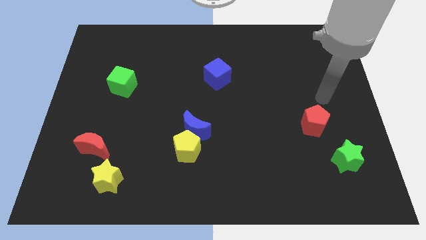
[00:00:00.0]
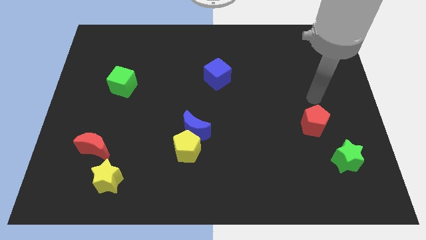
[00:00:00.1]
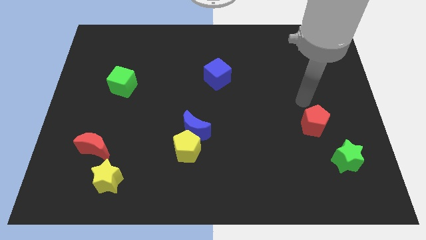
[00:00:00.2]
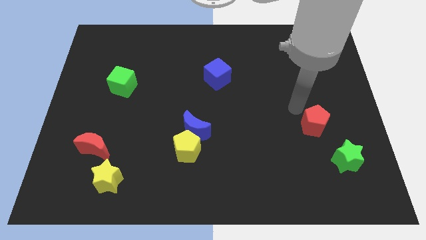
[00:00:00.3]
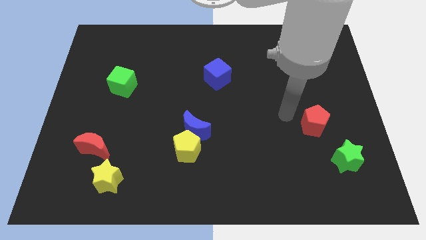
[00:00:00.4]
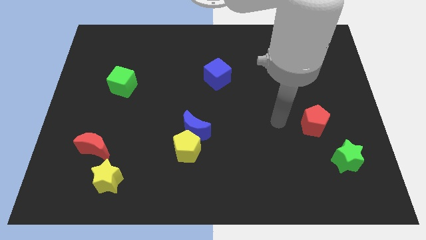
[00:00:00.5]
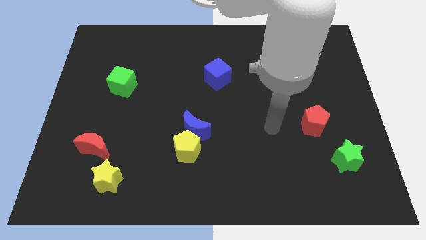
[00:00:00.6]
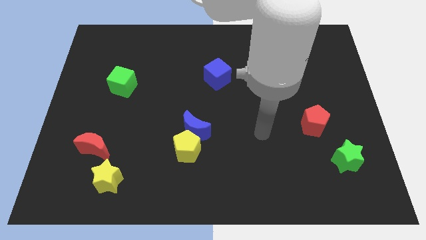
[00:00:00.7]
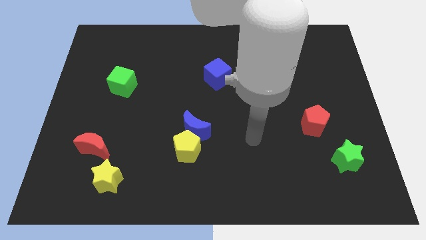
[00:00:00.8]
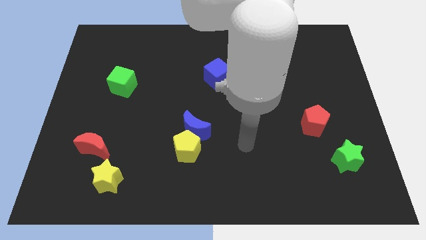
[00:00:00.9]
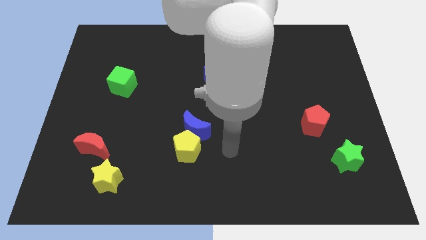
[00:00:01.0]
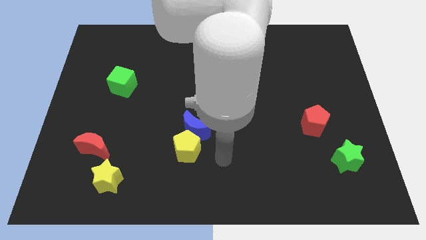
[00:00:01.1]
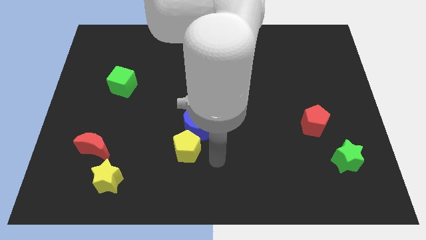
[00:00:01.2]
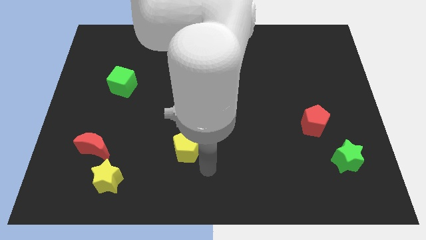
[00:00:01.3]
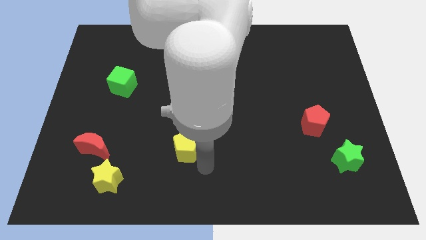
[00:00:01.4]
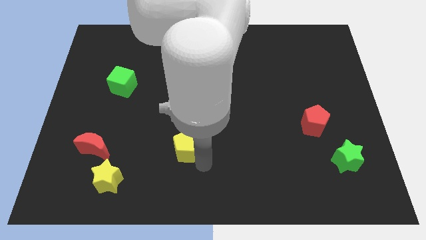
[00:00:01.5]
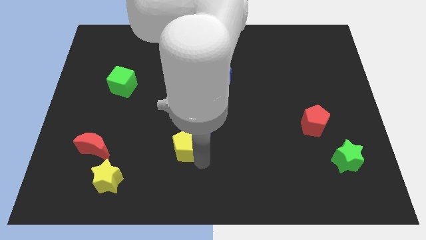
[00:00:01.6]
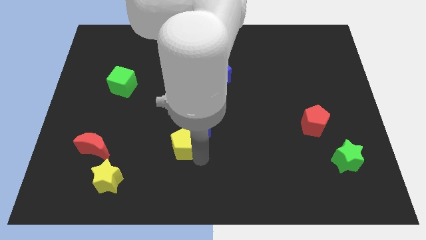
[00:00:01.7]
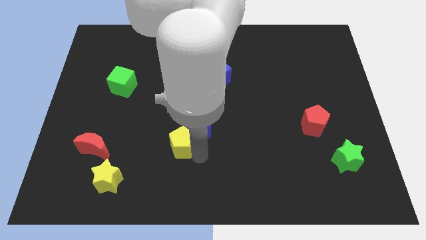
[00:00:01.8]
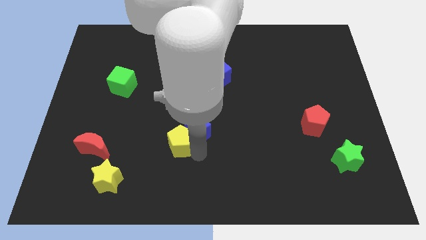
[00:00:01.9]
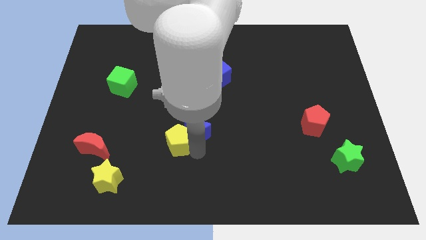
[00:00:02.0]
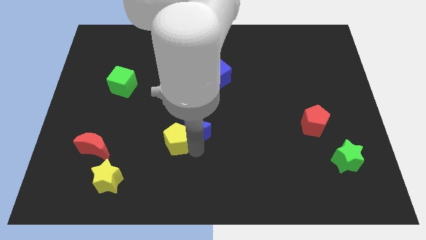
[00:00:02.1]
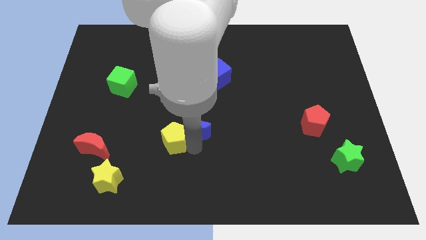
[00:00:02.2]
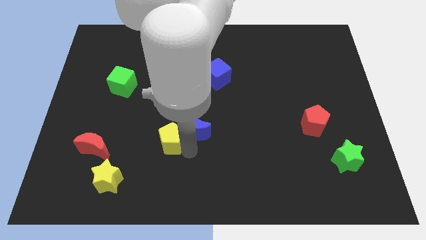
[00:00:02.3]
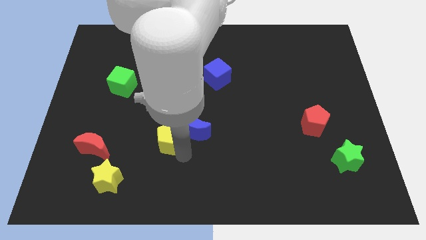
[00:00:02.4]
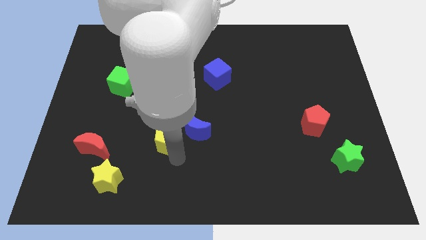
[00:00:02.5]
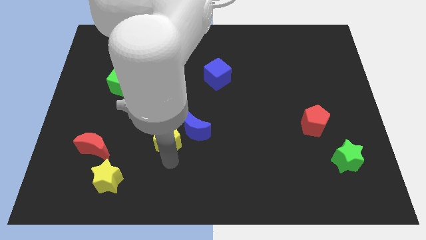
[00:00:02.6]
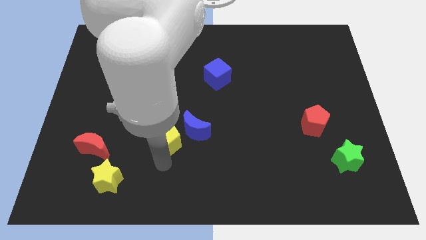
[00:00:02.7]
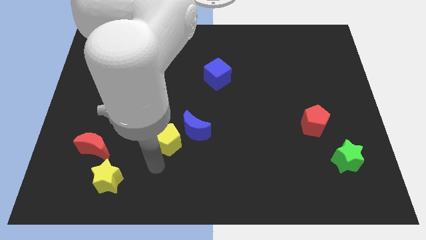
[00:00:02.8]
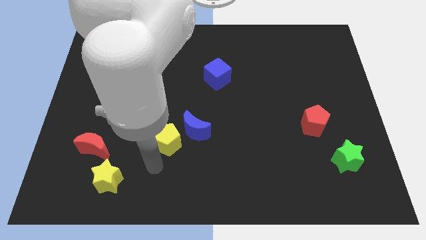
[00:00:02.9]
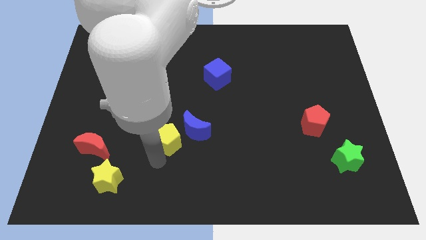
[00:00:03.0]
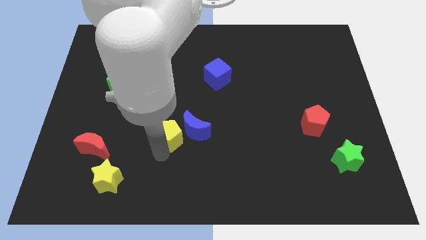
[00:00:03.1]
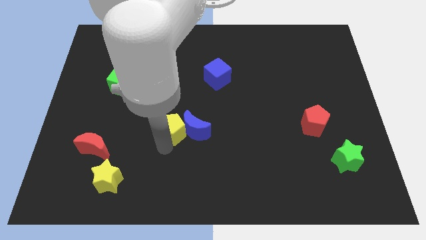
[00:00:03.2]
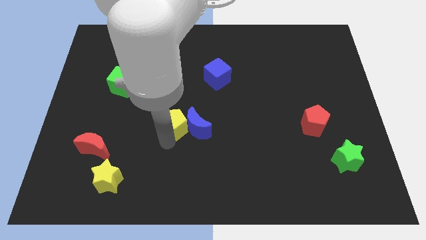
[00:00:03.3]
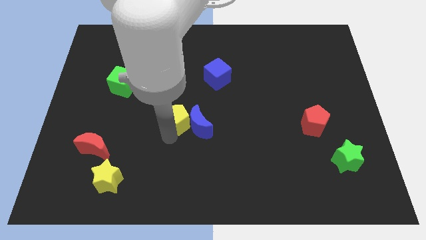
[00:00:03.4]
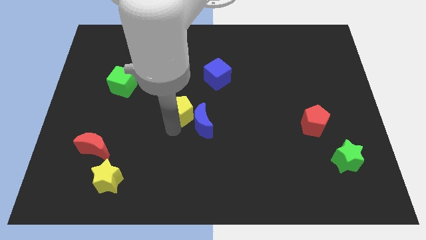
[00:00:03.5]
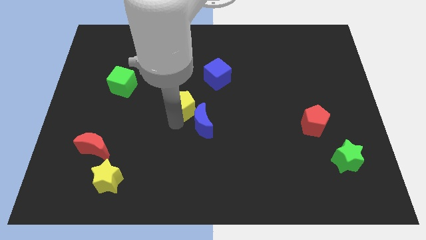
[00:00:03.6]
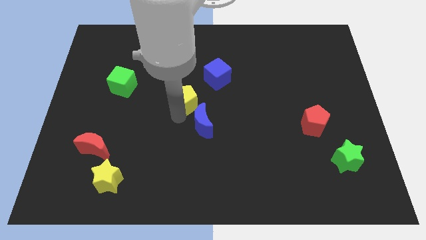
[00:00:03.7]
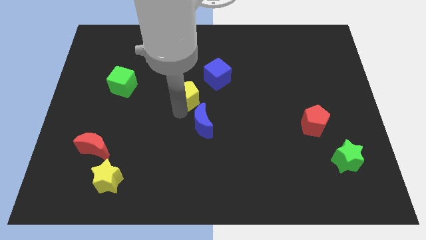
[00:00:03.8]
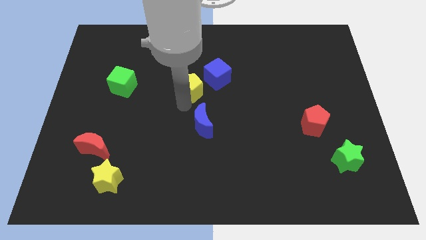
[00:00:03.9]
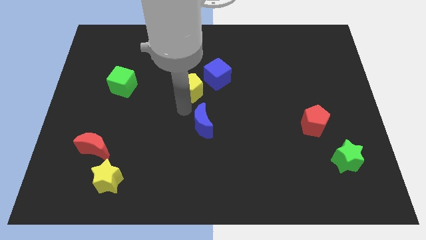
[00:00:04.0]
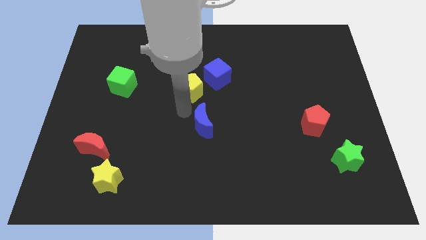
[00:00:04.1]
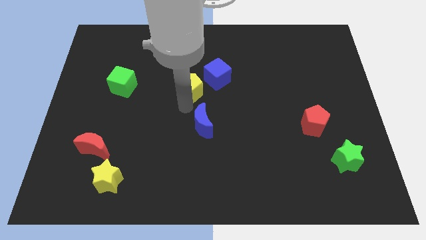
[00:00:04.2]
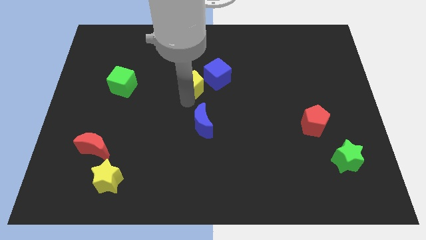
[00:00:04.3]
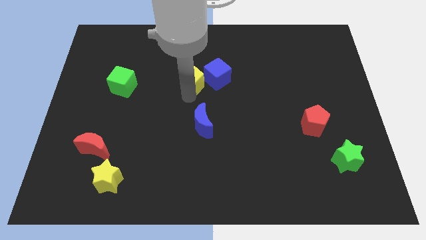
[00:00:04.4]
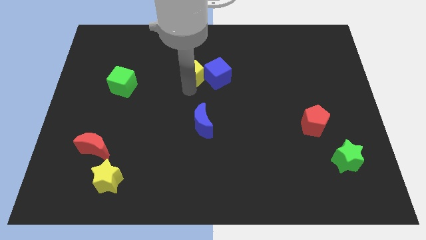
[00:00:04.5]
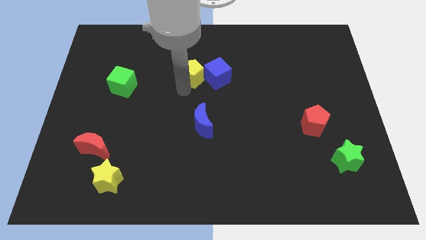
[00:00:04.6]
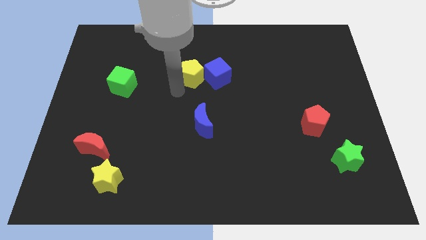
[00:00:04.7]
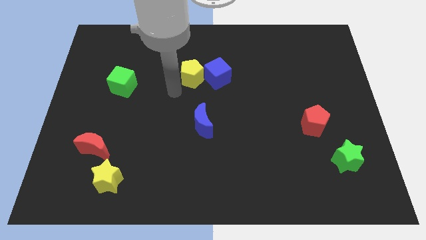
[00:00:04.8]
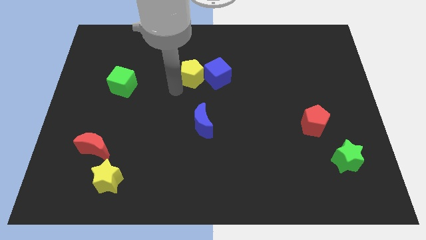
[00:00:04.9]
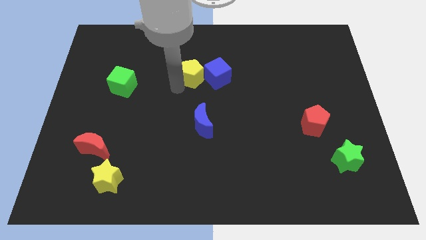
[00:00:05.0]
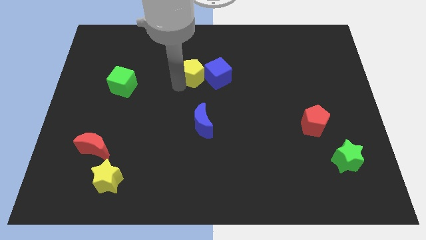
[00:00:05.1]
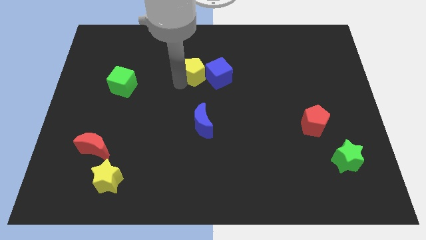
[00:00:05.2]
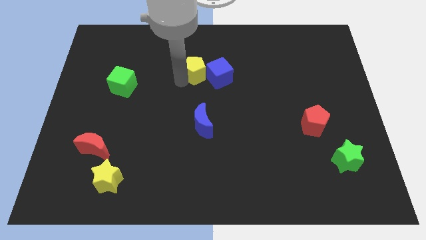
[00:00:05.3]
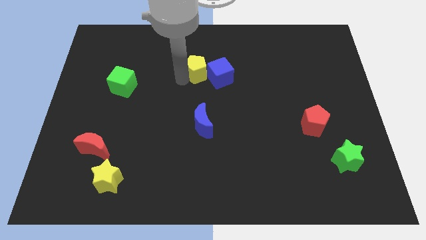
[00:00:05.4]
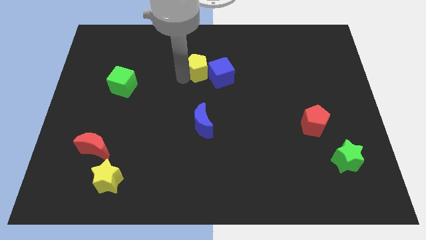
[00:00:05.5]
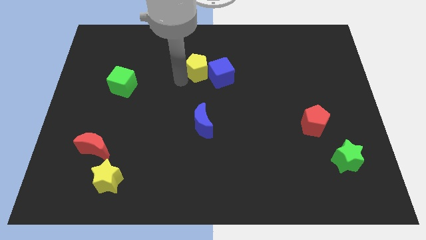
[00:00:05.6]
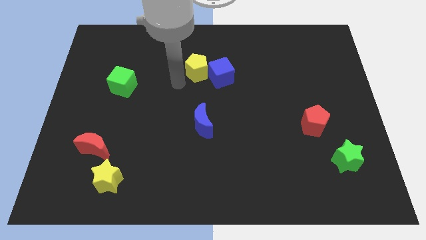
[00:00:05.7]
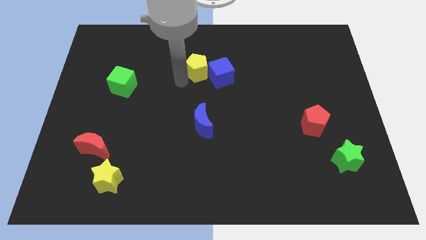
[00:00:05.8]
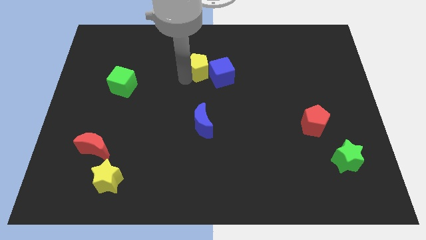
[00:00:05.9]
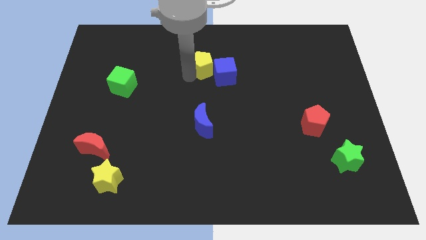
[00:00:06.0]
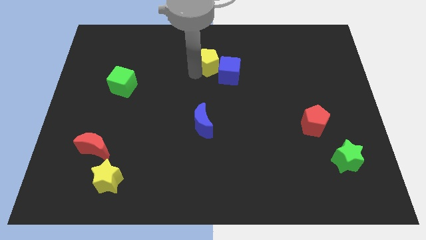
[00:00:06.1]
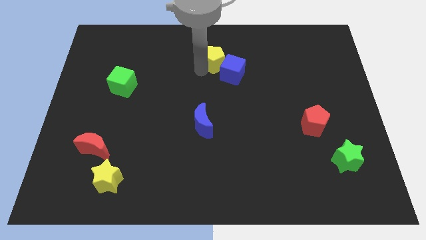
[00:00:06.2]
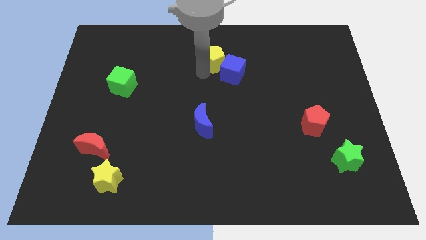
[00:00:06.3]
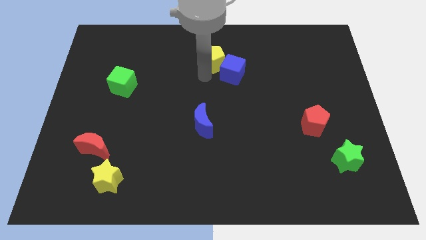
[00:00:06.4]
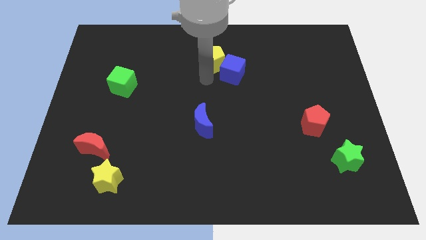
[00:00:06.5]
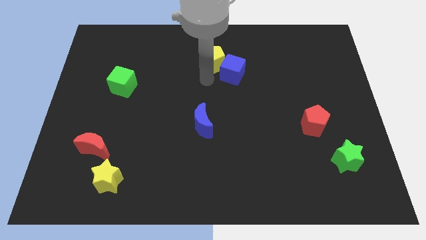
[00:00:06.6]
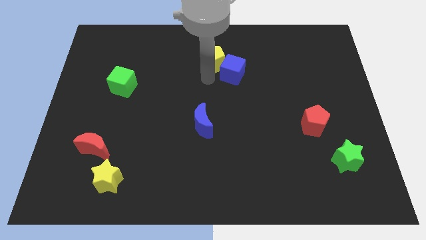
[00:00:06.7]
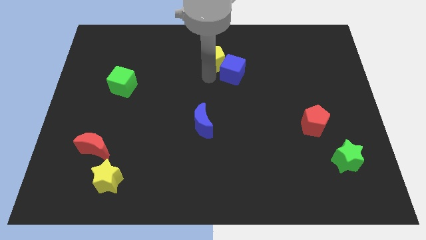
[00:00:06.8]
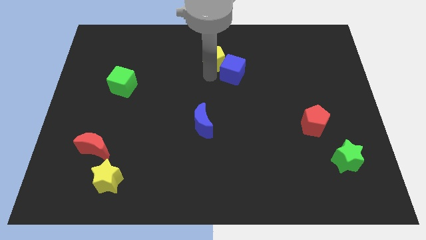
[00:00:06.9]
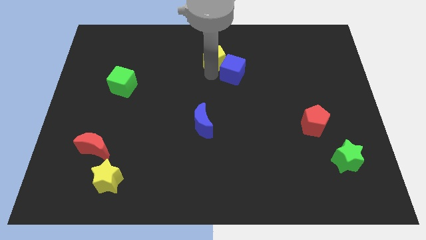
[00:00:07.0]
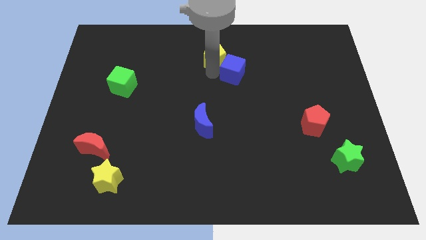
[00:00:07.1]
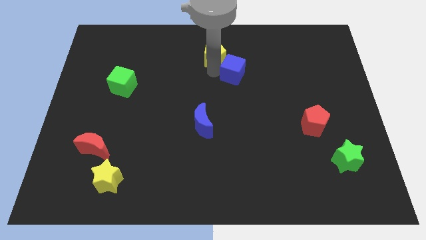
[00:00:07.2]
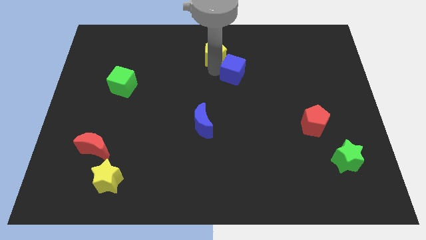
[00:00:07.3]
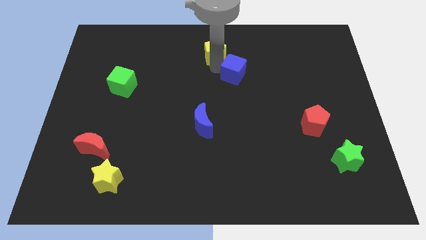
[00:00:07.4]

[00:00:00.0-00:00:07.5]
move the yellow pentagon to the towards your base
